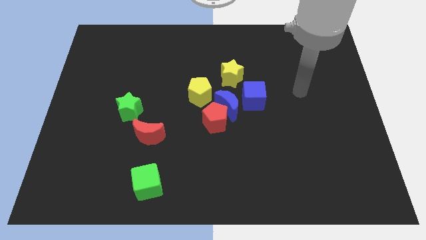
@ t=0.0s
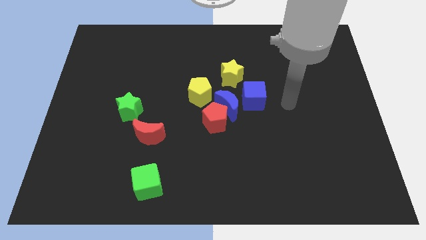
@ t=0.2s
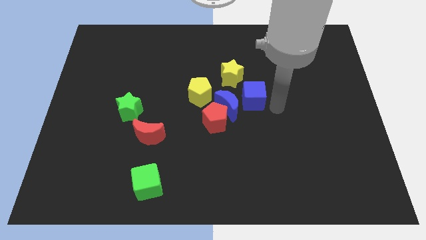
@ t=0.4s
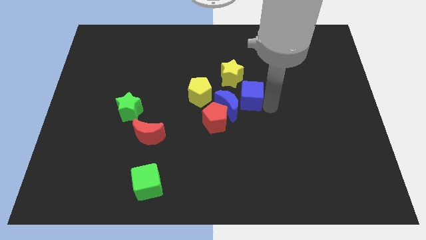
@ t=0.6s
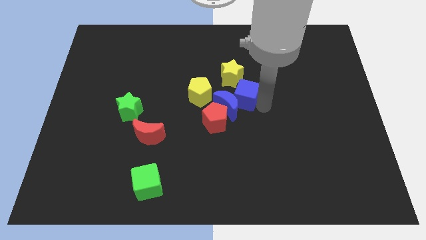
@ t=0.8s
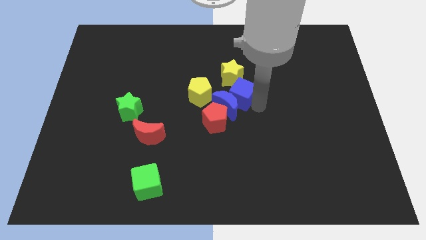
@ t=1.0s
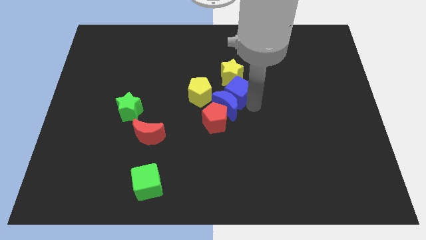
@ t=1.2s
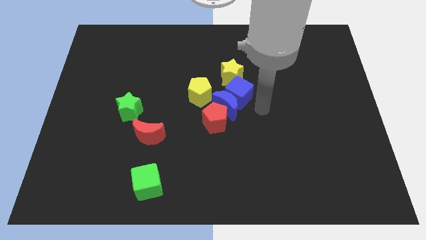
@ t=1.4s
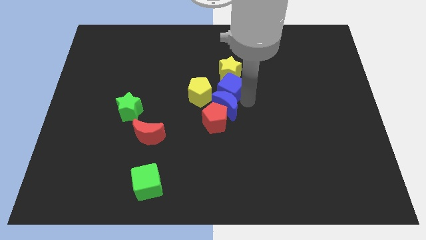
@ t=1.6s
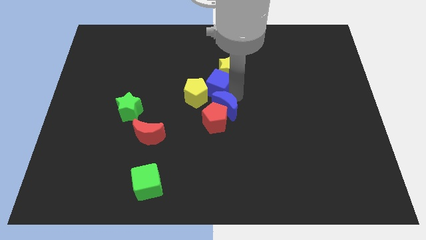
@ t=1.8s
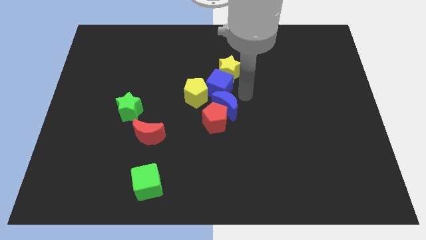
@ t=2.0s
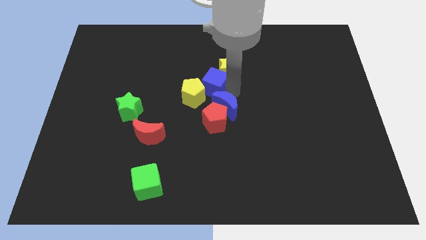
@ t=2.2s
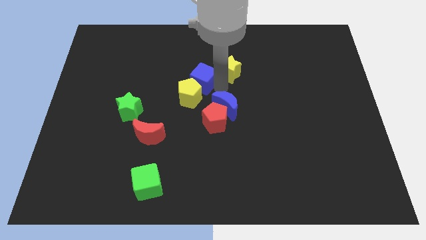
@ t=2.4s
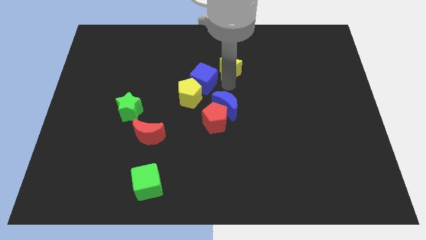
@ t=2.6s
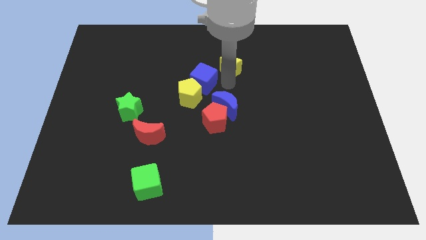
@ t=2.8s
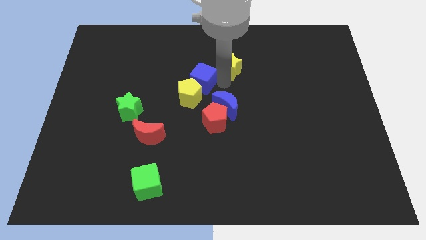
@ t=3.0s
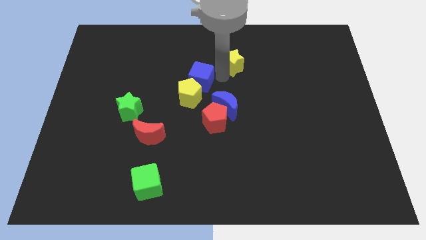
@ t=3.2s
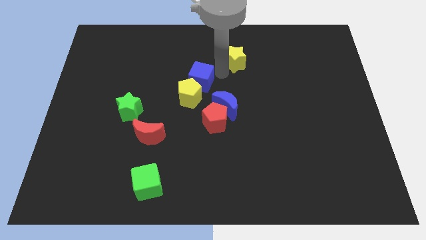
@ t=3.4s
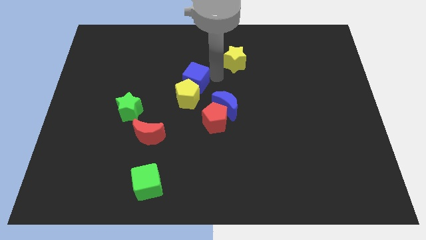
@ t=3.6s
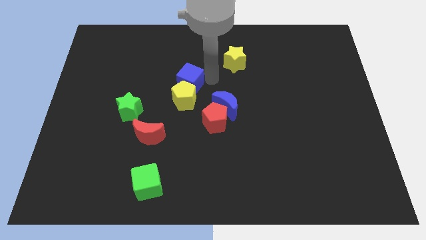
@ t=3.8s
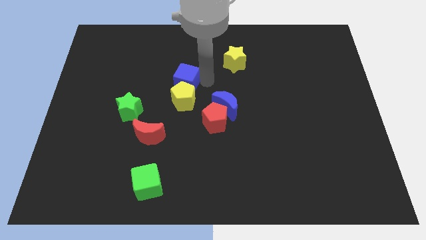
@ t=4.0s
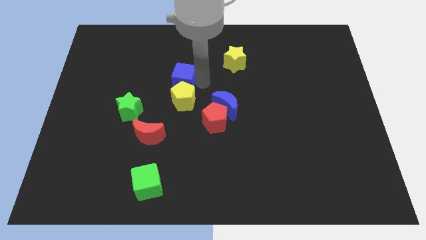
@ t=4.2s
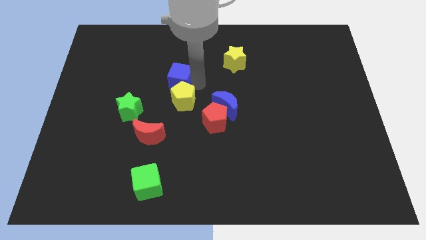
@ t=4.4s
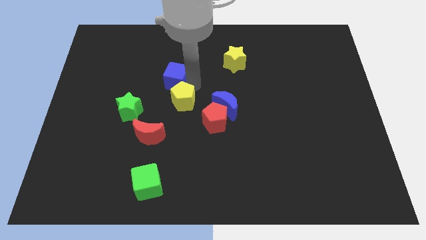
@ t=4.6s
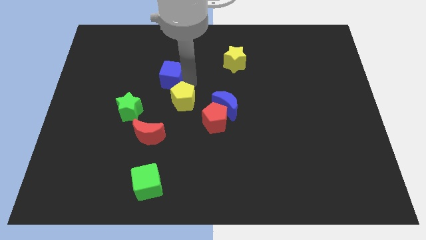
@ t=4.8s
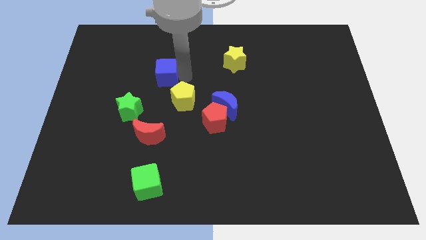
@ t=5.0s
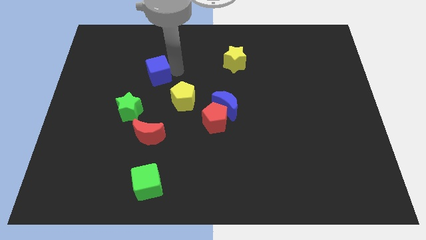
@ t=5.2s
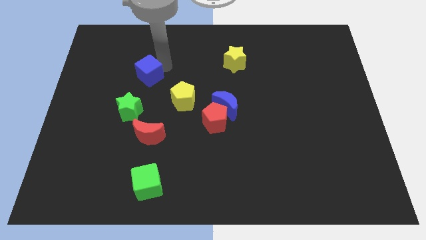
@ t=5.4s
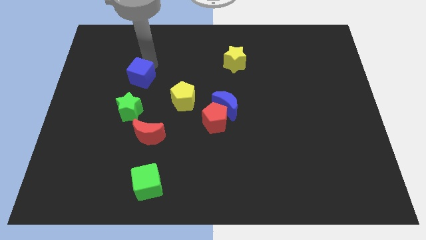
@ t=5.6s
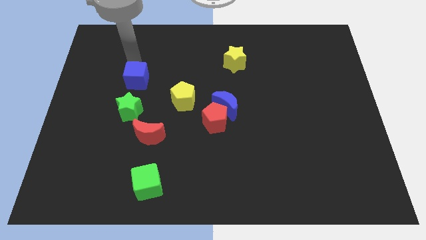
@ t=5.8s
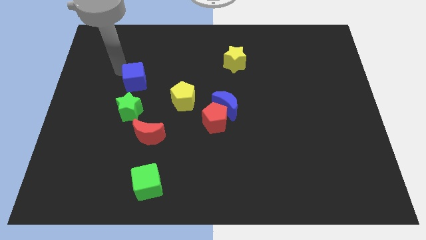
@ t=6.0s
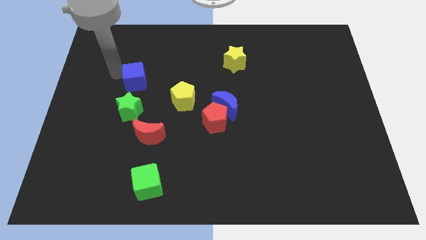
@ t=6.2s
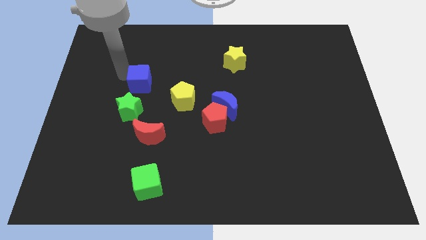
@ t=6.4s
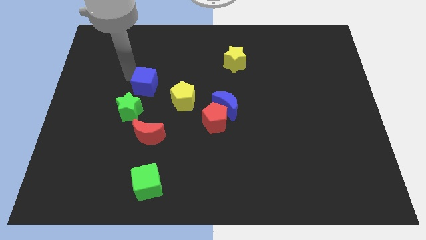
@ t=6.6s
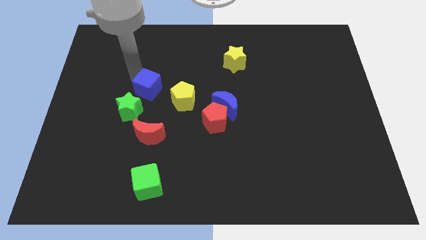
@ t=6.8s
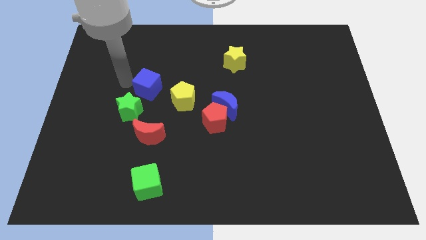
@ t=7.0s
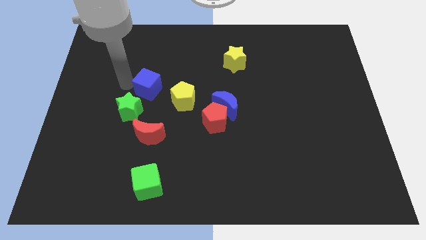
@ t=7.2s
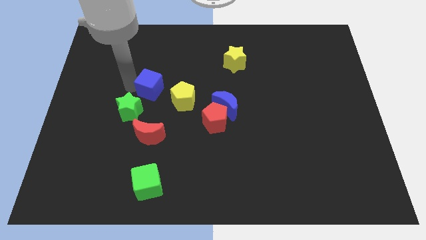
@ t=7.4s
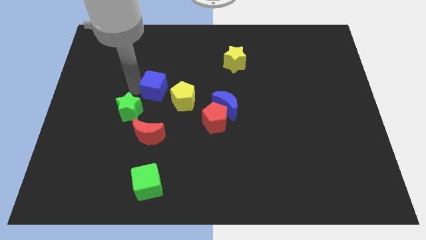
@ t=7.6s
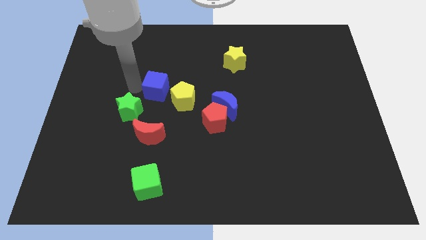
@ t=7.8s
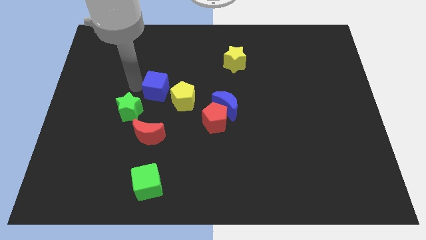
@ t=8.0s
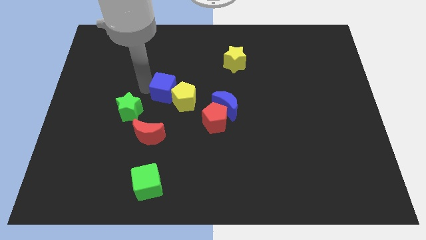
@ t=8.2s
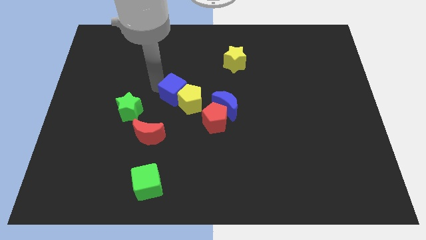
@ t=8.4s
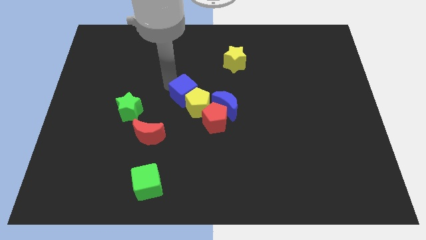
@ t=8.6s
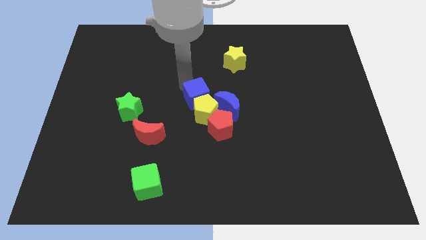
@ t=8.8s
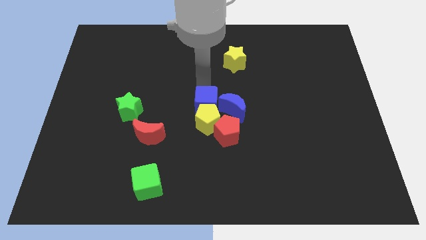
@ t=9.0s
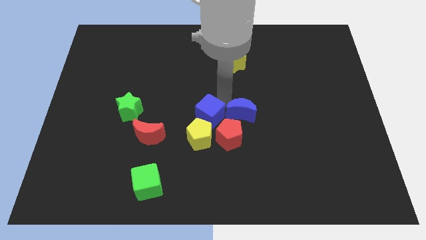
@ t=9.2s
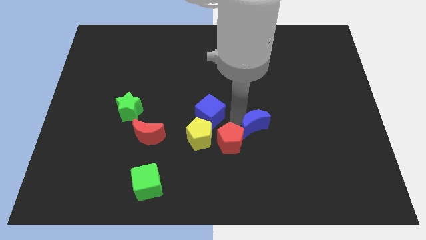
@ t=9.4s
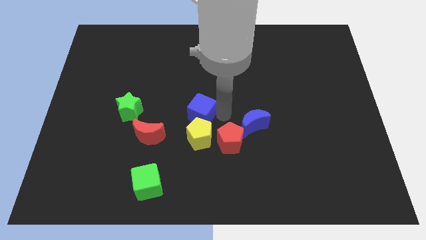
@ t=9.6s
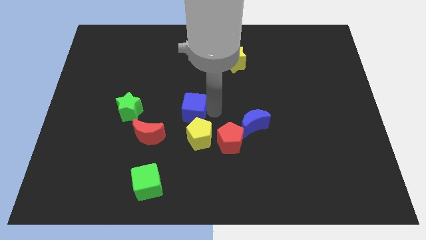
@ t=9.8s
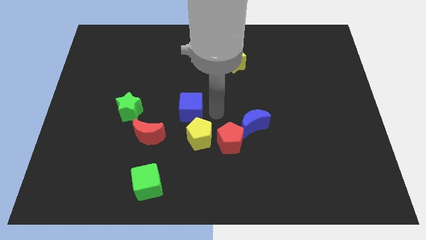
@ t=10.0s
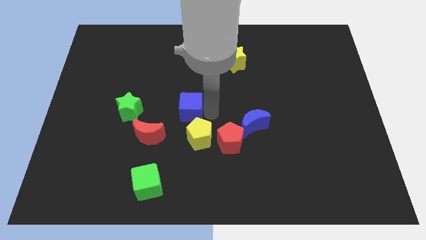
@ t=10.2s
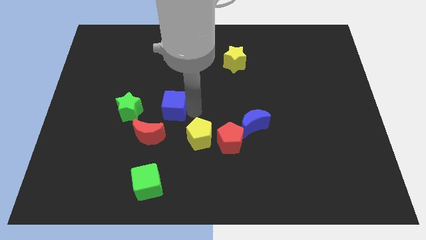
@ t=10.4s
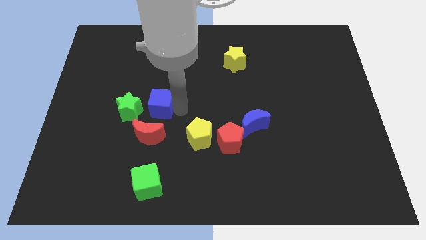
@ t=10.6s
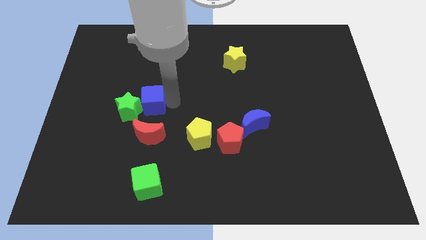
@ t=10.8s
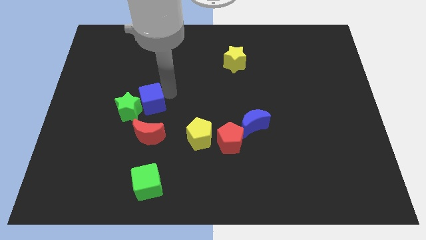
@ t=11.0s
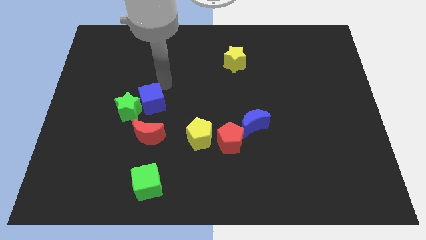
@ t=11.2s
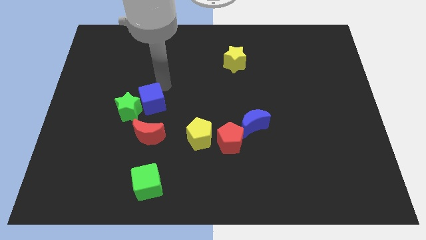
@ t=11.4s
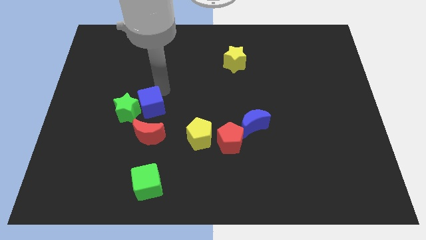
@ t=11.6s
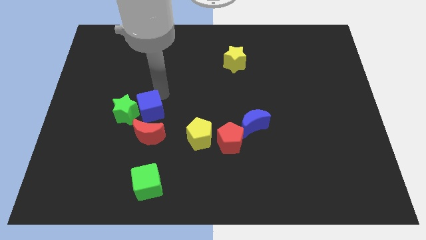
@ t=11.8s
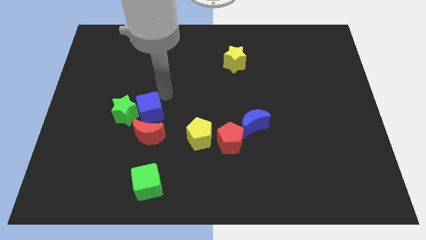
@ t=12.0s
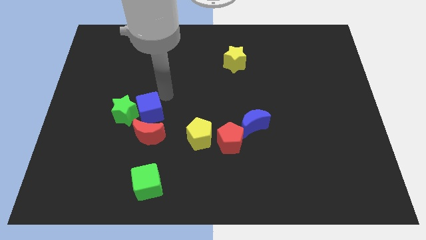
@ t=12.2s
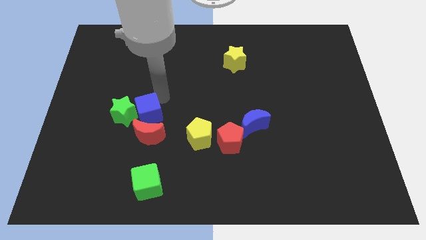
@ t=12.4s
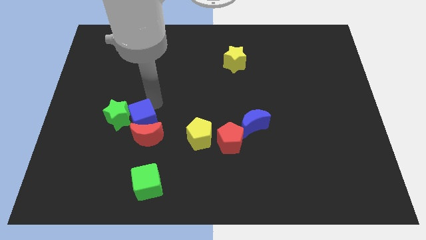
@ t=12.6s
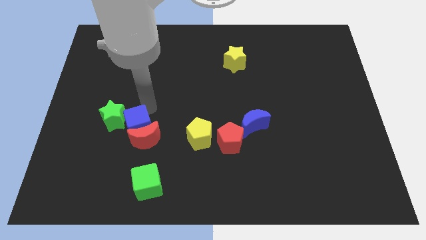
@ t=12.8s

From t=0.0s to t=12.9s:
push the blue cube just left of the red moon

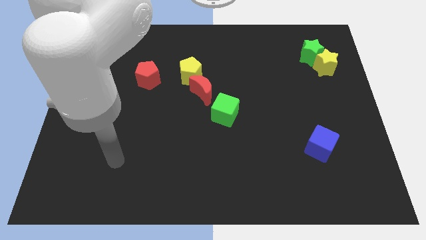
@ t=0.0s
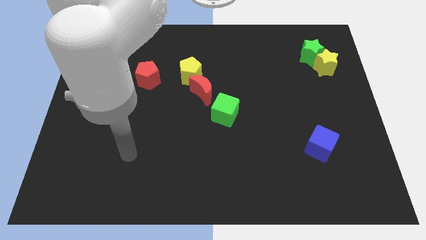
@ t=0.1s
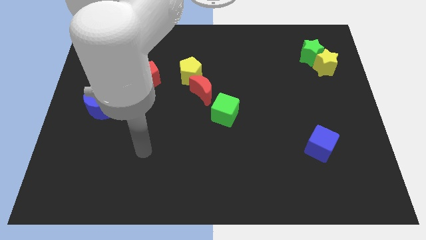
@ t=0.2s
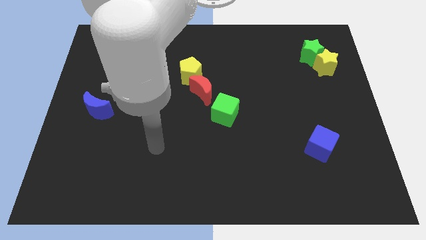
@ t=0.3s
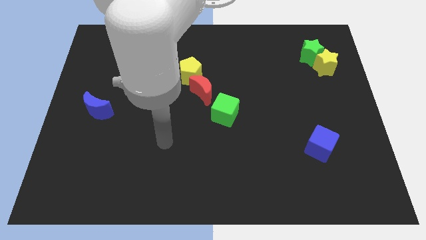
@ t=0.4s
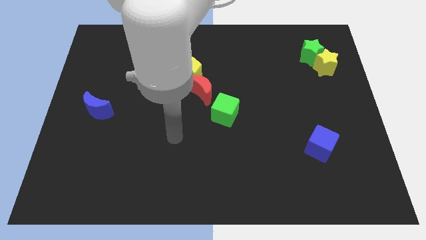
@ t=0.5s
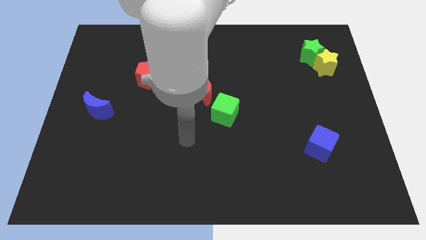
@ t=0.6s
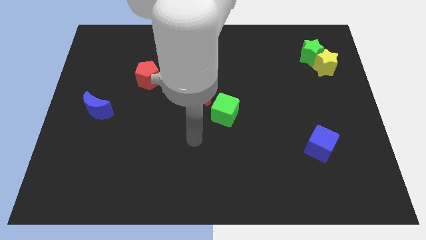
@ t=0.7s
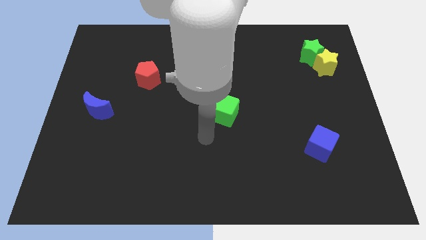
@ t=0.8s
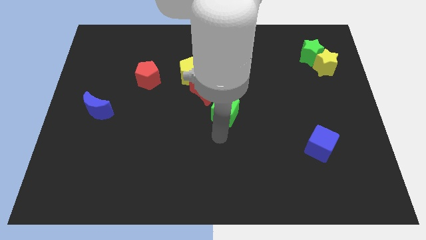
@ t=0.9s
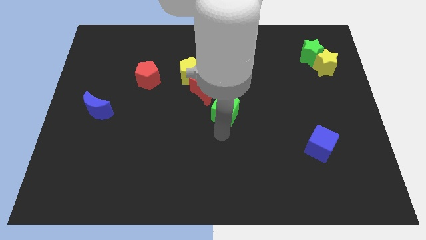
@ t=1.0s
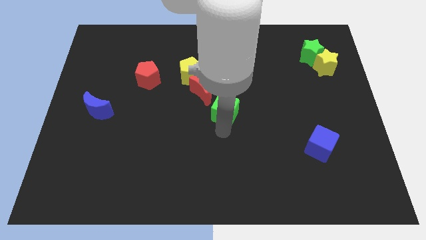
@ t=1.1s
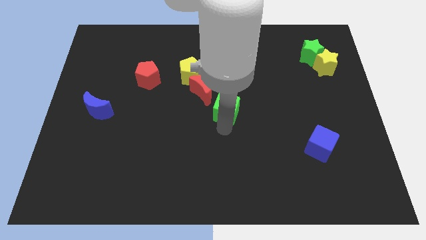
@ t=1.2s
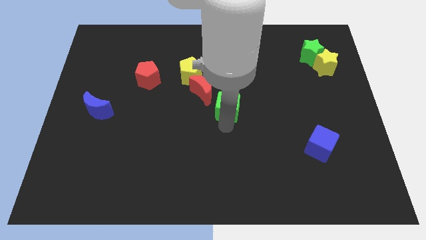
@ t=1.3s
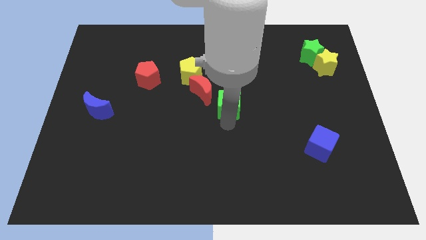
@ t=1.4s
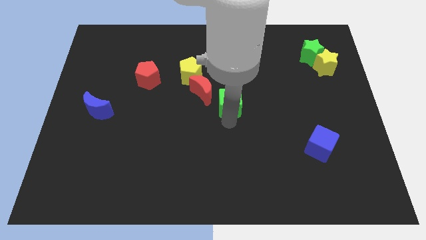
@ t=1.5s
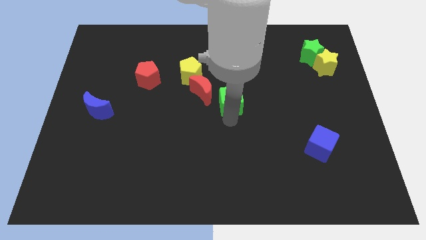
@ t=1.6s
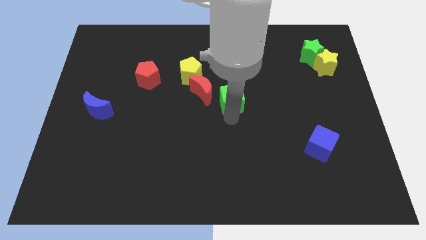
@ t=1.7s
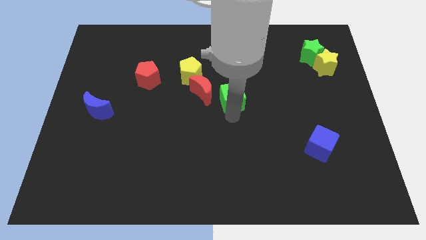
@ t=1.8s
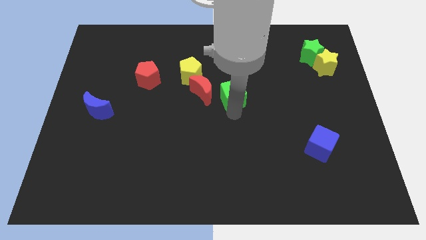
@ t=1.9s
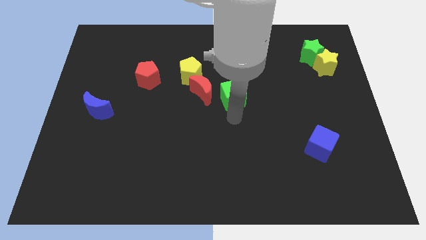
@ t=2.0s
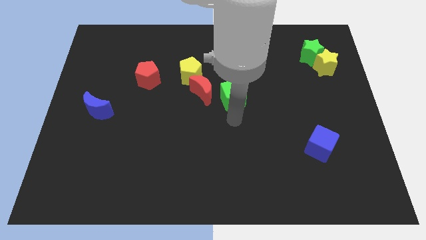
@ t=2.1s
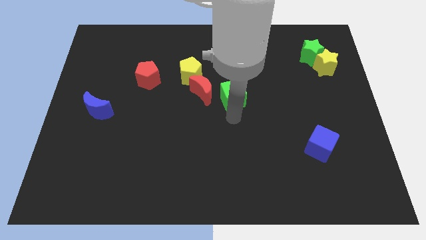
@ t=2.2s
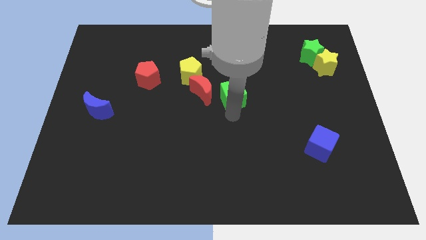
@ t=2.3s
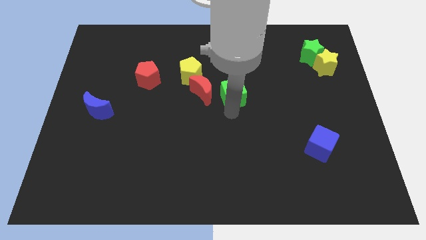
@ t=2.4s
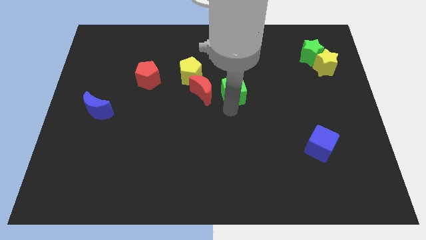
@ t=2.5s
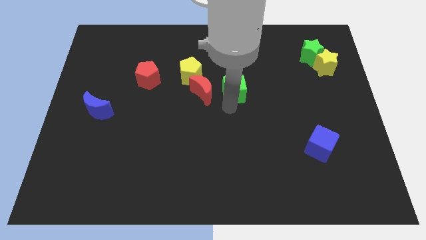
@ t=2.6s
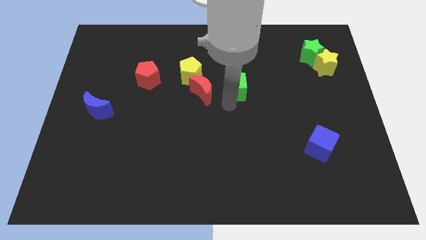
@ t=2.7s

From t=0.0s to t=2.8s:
put the green cube just right of the yellow pentagon
